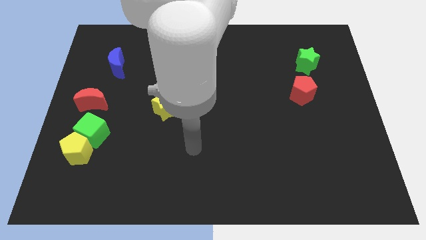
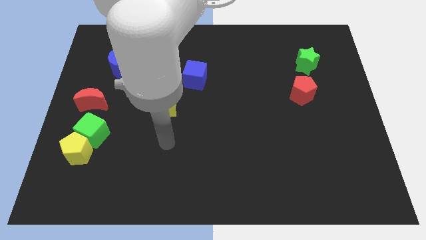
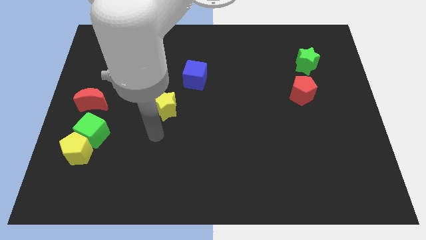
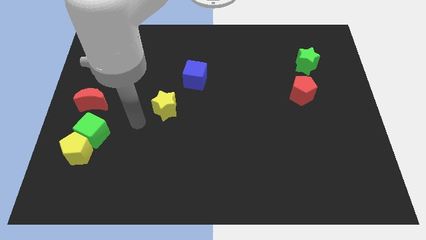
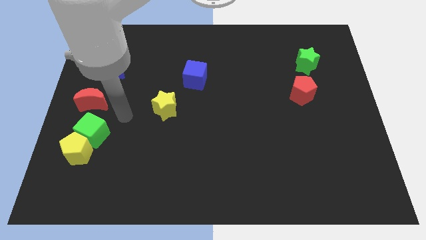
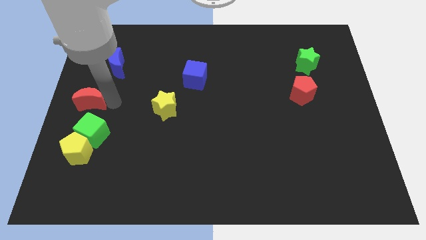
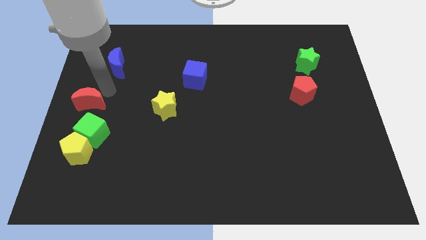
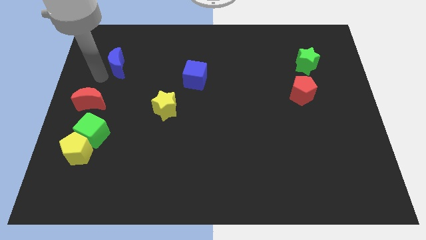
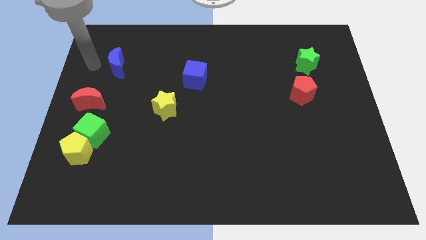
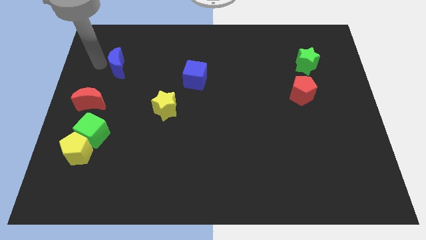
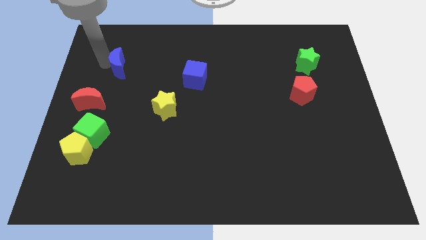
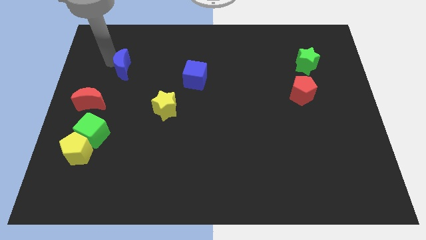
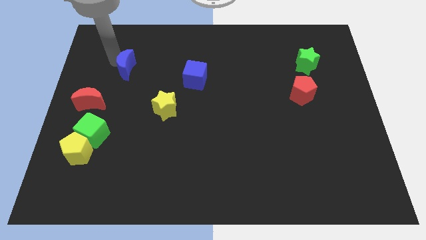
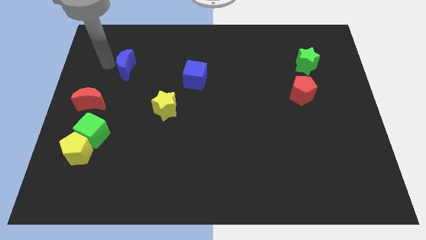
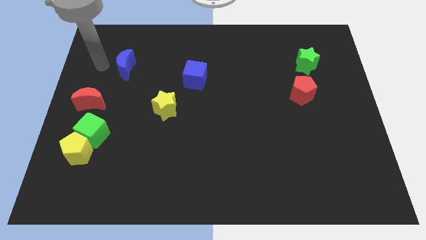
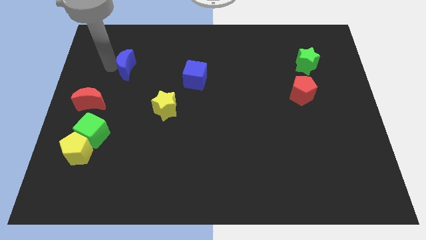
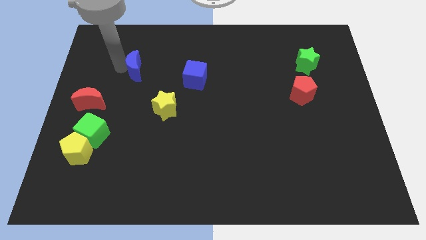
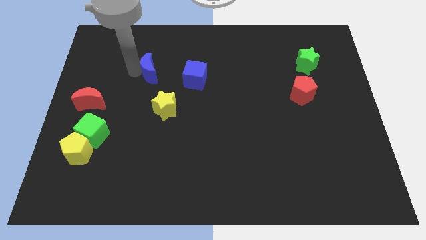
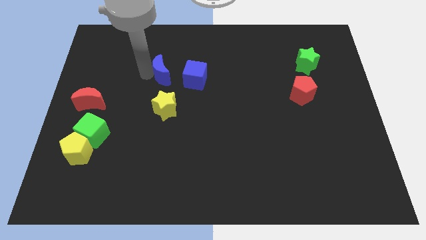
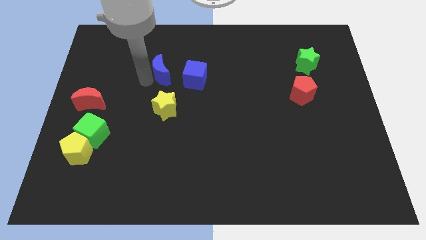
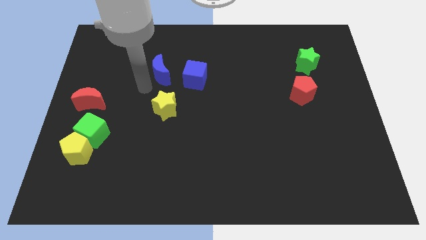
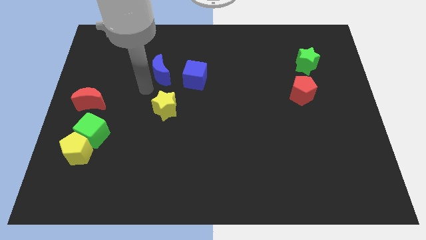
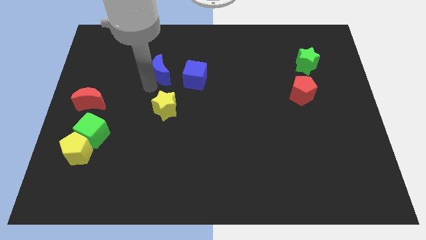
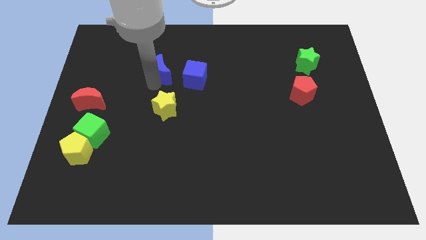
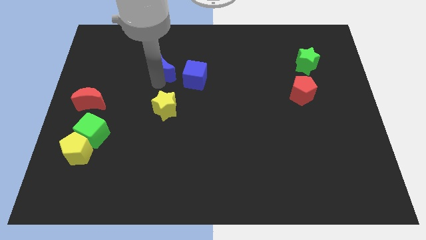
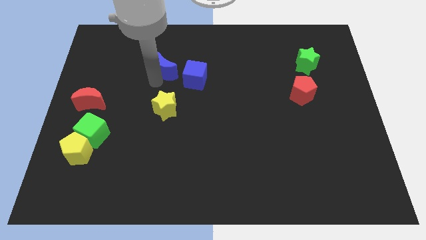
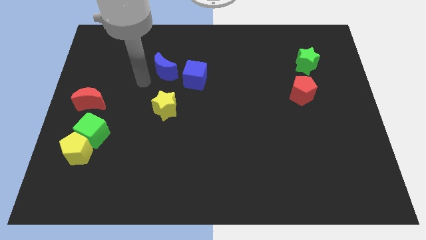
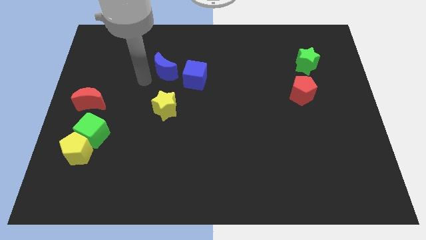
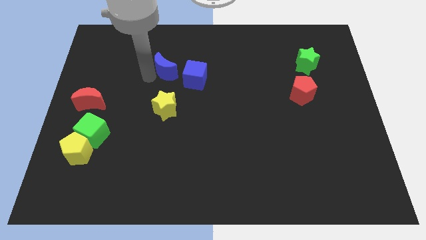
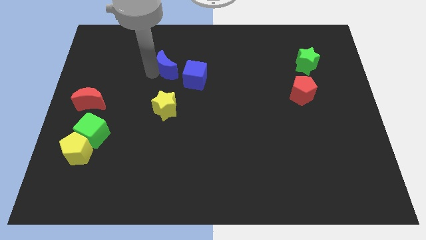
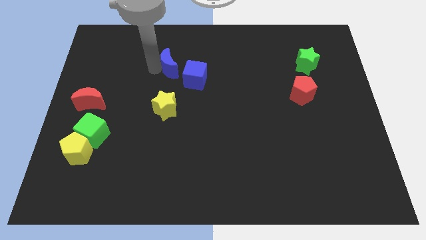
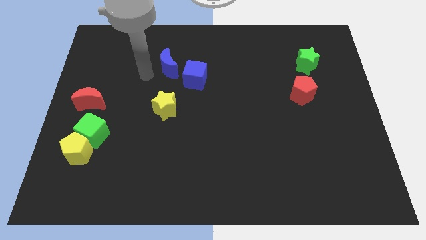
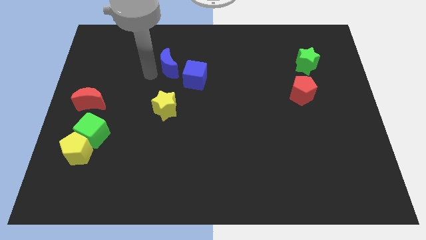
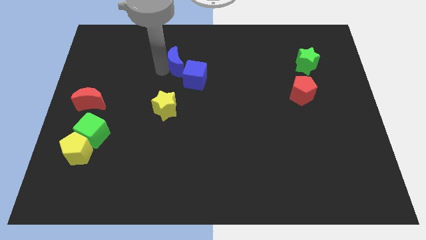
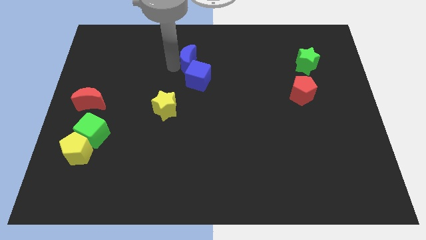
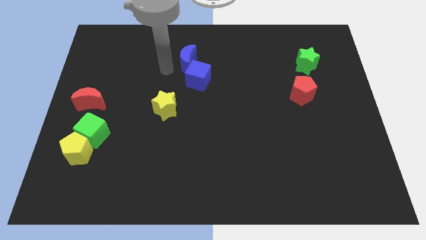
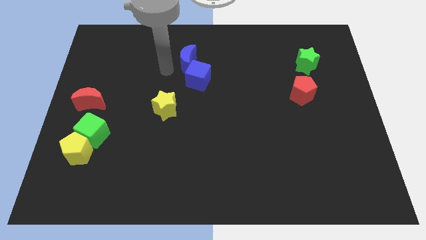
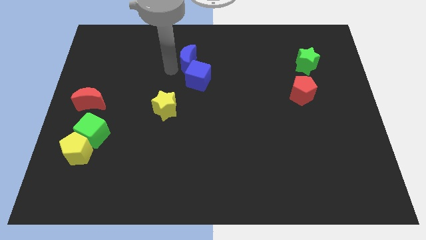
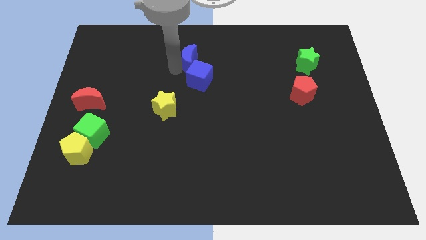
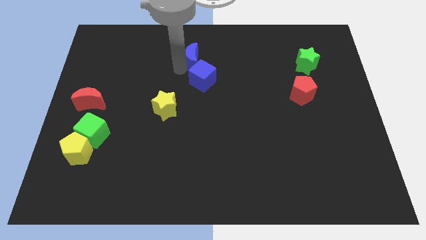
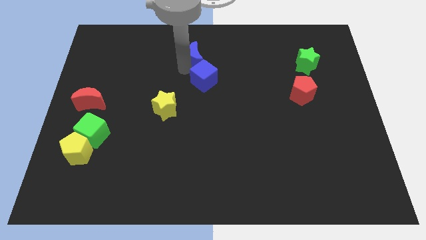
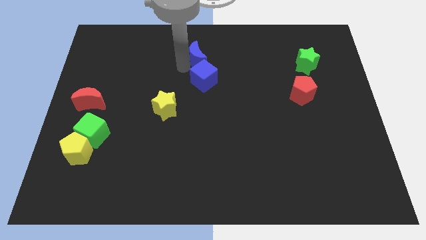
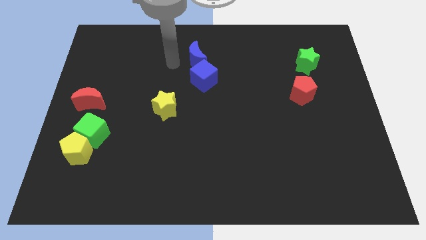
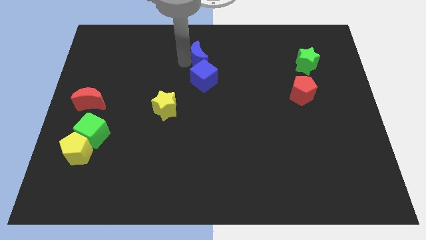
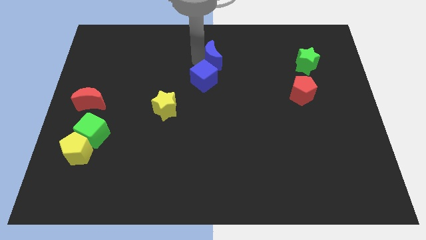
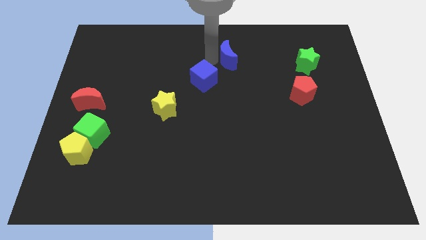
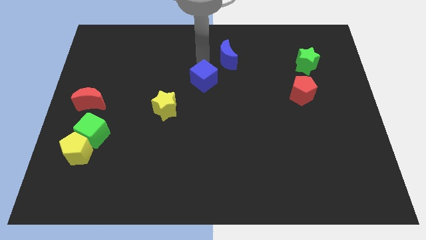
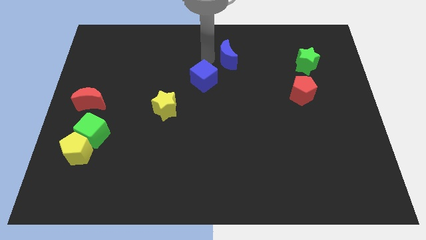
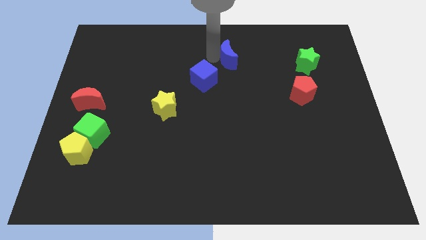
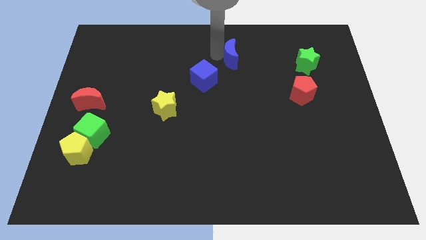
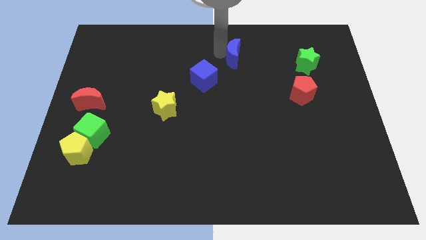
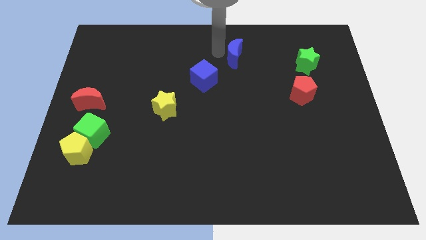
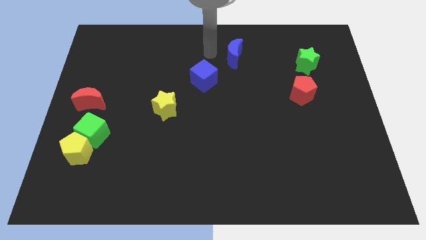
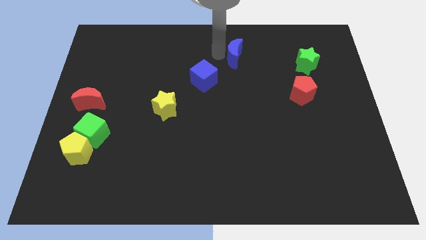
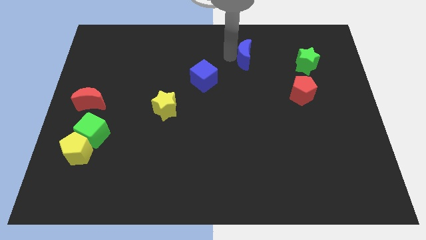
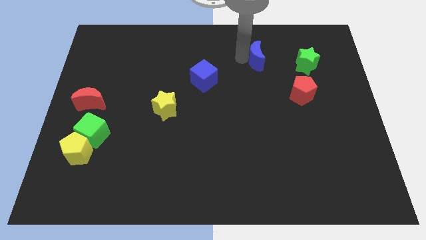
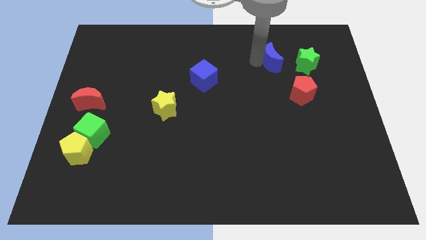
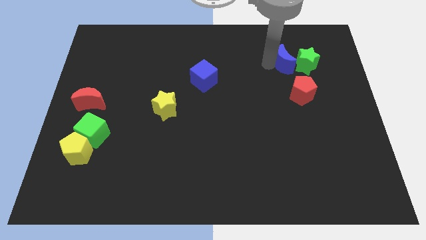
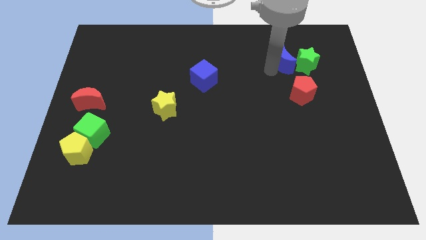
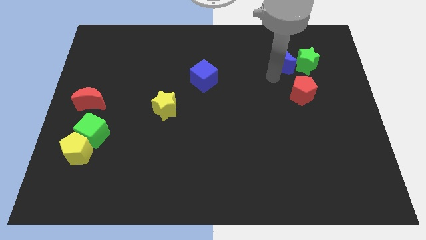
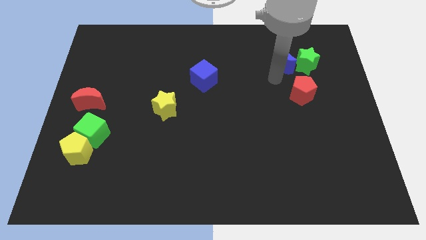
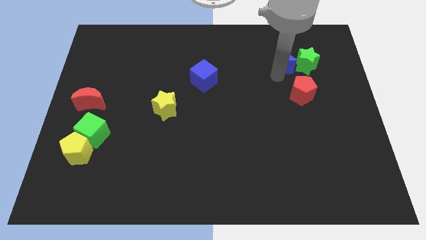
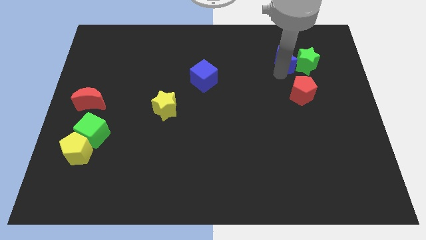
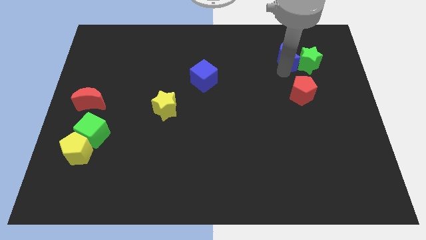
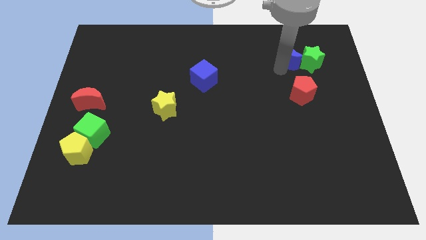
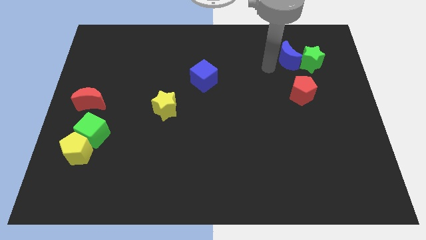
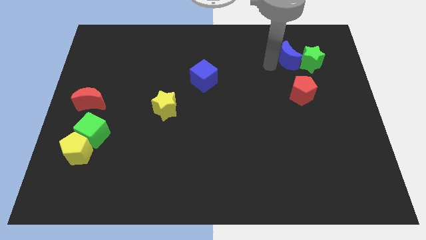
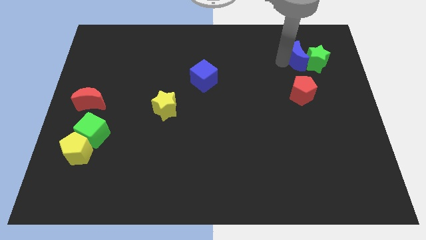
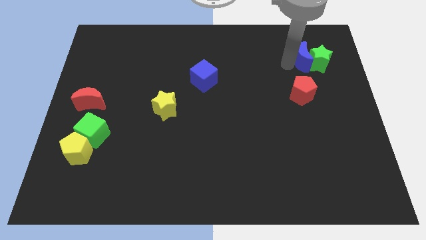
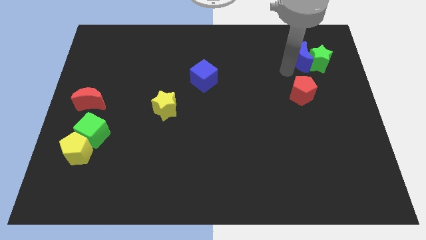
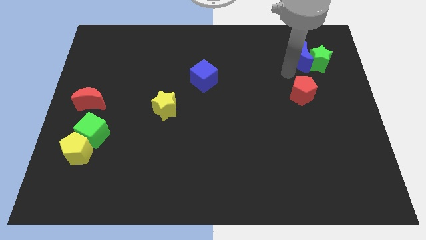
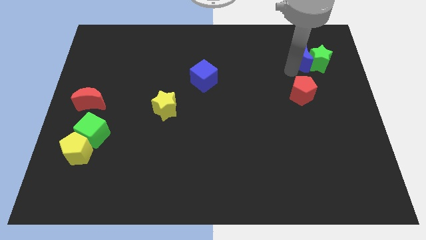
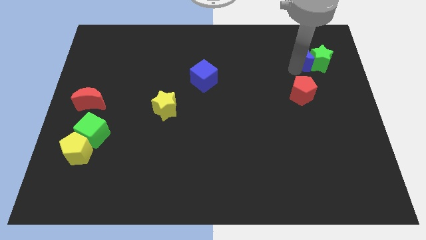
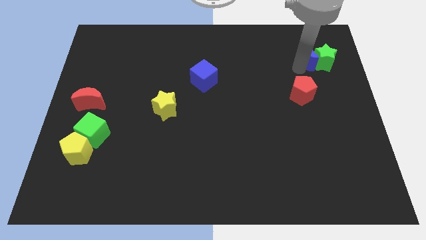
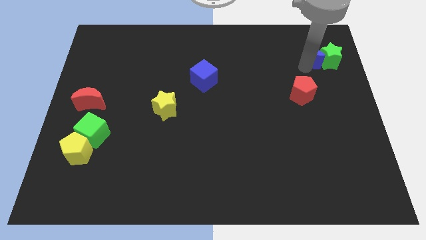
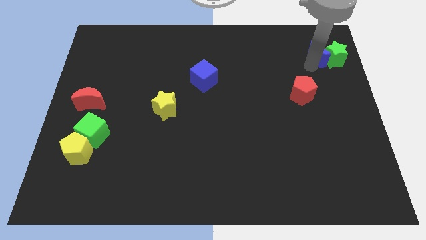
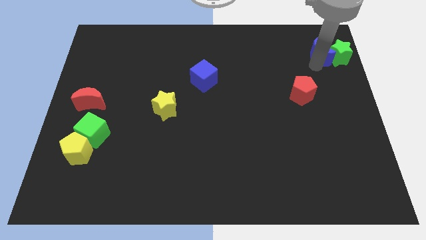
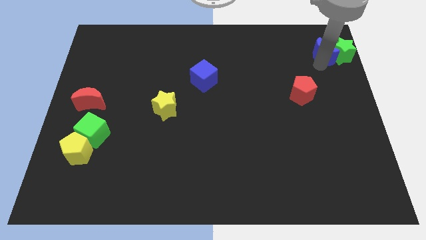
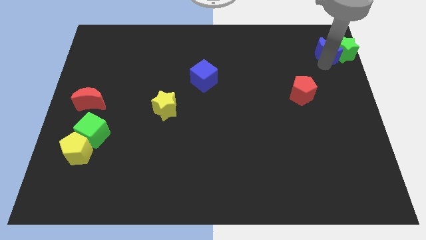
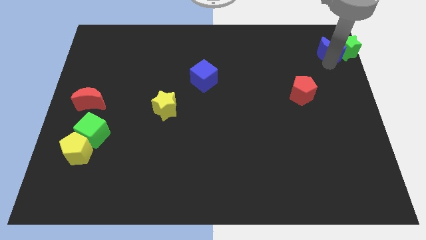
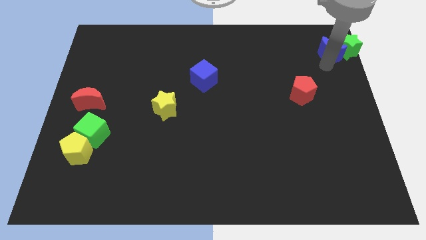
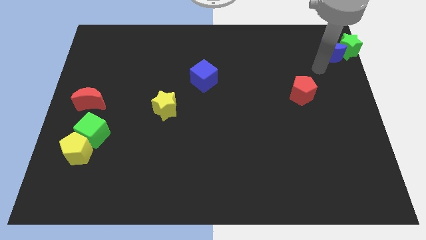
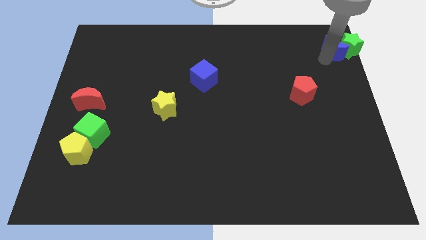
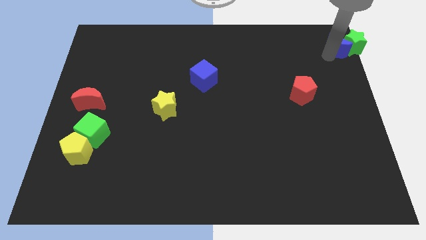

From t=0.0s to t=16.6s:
push the blue moon to the top right corner
